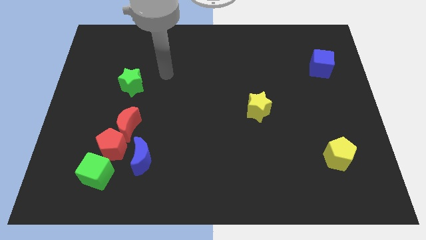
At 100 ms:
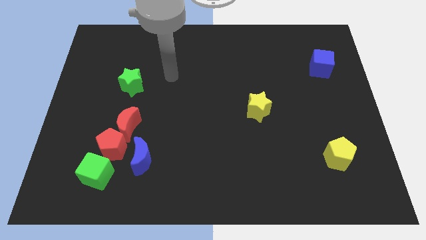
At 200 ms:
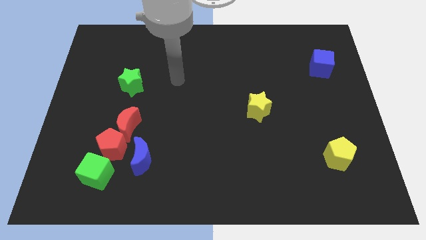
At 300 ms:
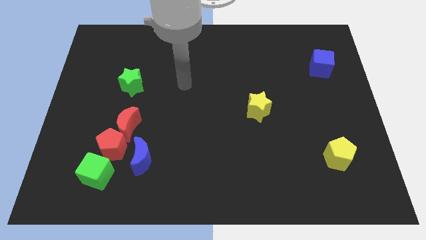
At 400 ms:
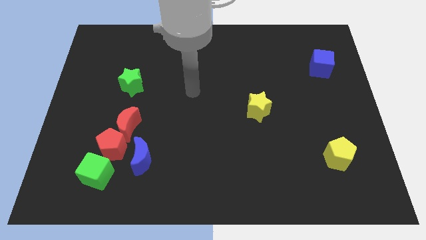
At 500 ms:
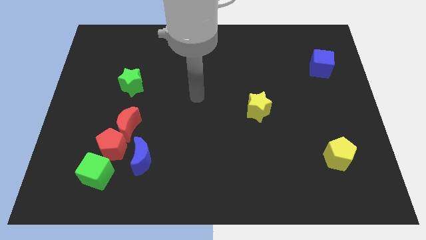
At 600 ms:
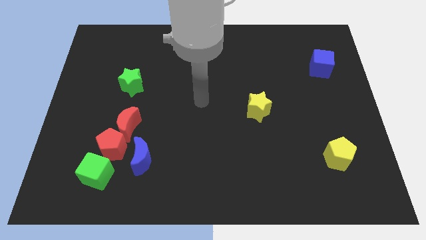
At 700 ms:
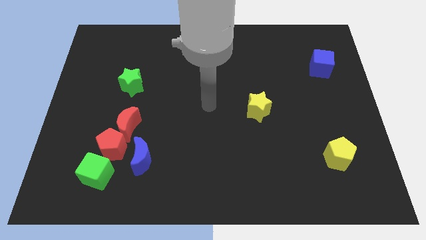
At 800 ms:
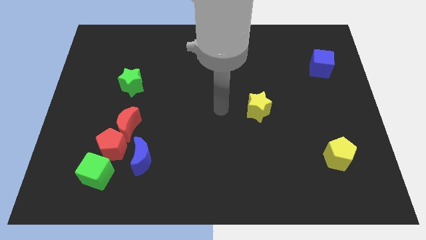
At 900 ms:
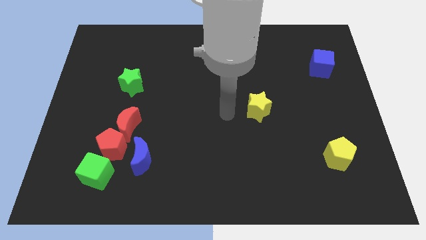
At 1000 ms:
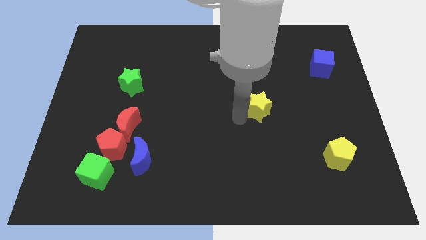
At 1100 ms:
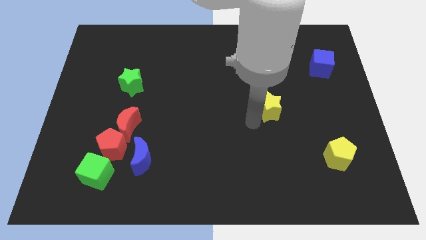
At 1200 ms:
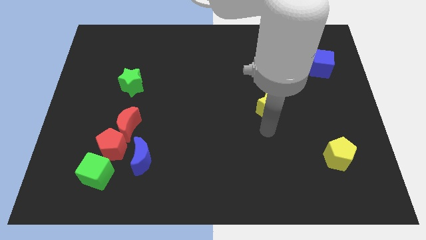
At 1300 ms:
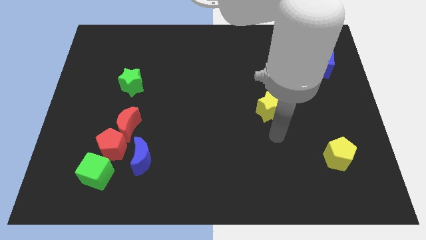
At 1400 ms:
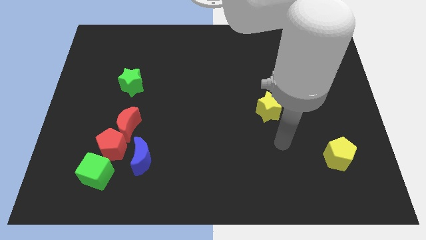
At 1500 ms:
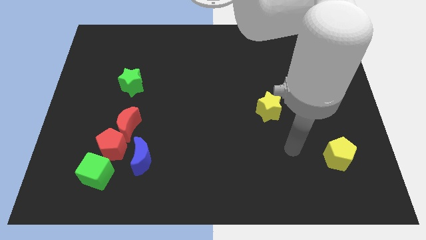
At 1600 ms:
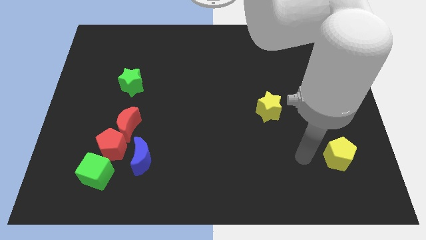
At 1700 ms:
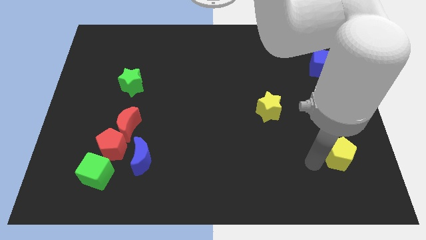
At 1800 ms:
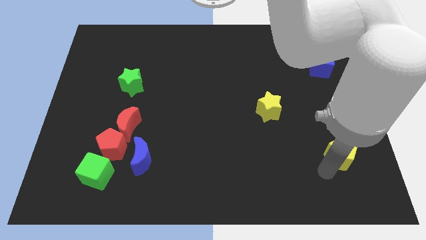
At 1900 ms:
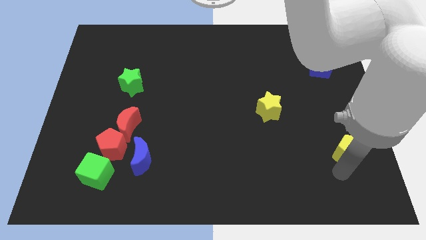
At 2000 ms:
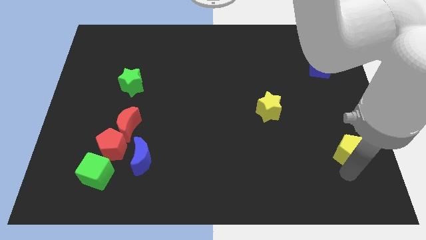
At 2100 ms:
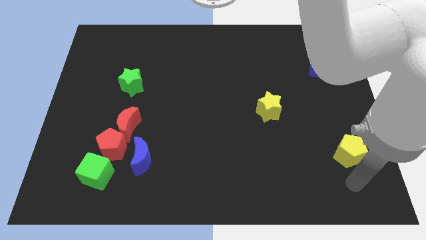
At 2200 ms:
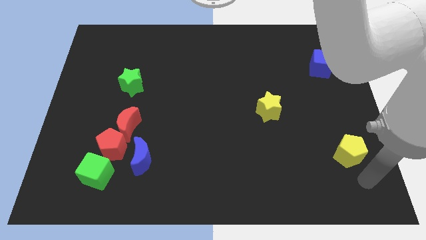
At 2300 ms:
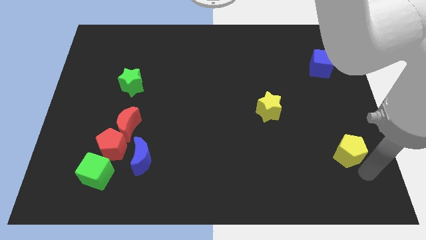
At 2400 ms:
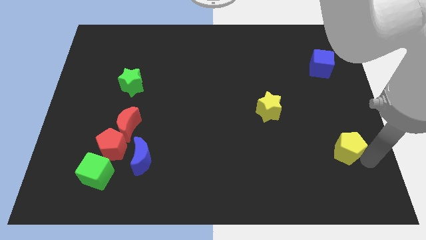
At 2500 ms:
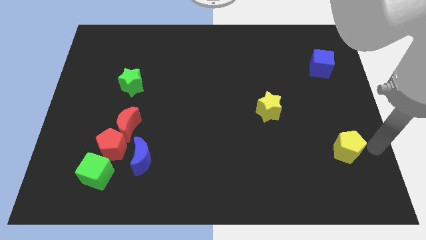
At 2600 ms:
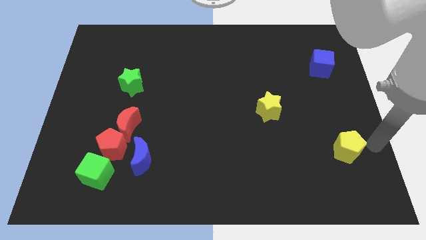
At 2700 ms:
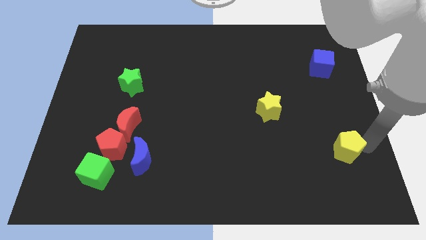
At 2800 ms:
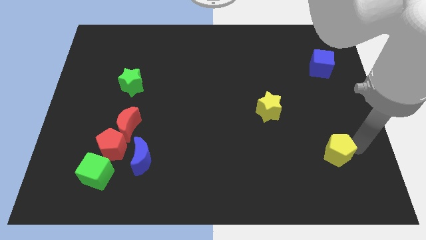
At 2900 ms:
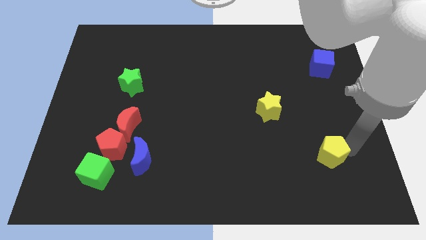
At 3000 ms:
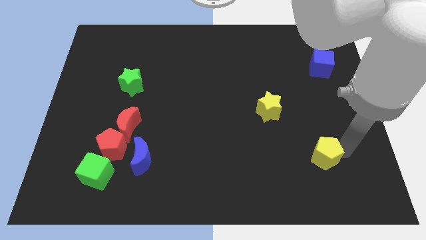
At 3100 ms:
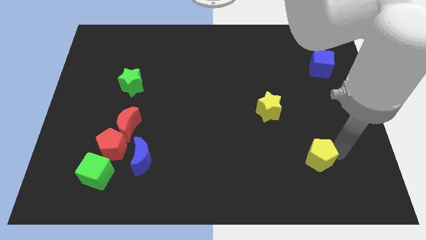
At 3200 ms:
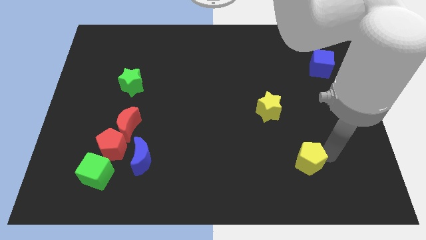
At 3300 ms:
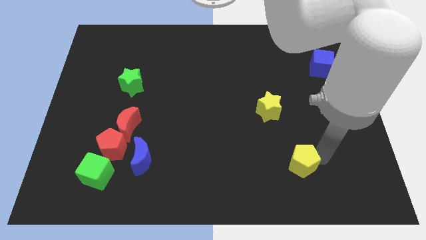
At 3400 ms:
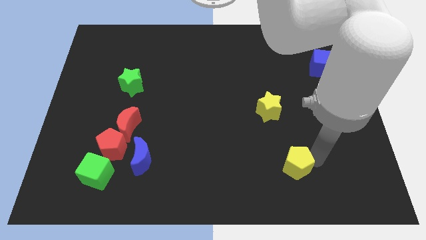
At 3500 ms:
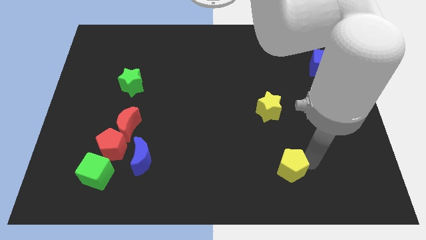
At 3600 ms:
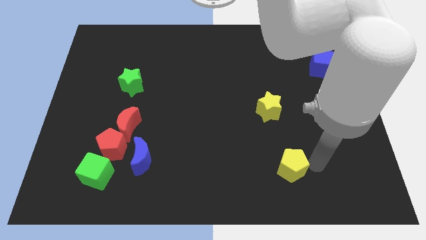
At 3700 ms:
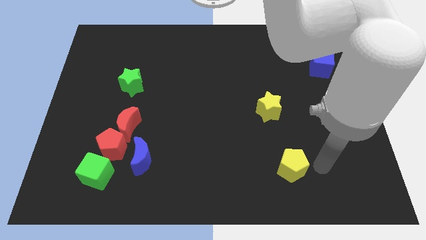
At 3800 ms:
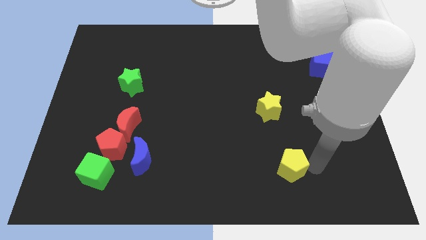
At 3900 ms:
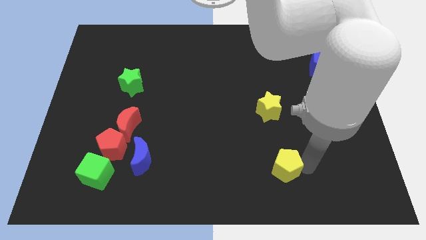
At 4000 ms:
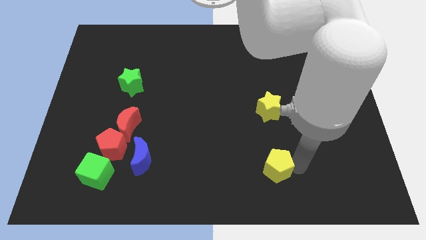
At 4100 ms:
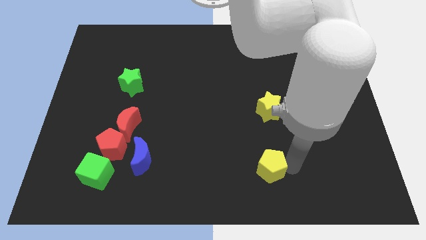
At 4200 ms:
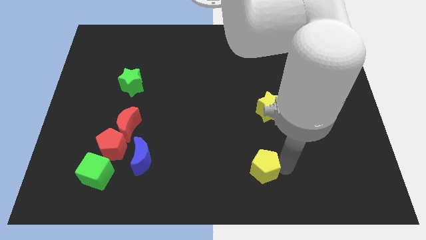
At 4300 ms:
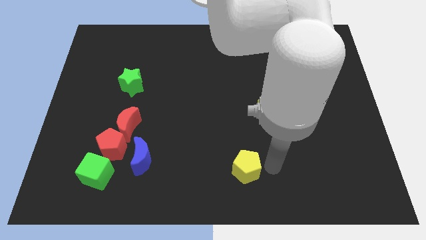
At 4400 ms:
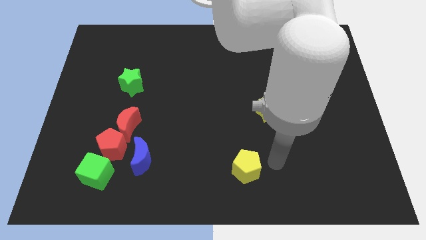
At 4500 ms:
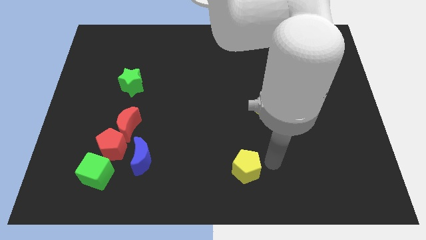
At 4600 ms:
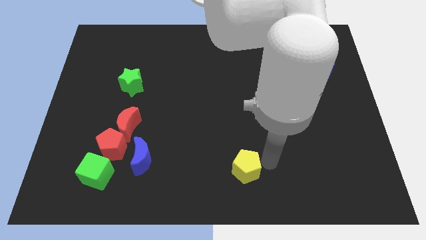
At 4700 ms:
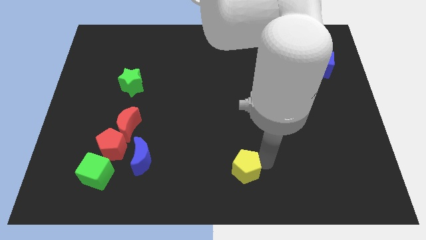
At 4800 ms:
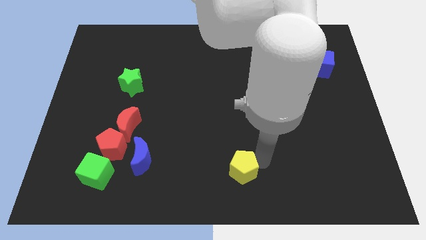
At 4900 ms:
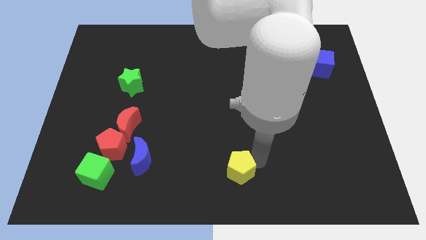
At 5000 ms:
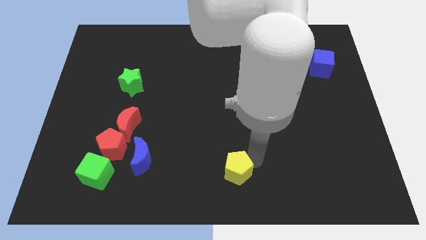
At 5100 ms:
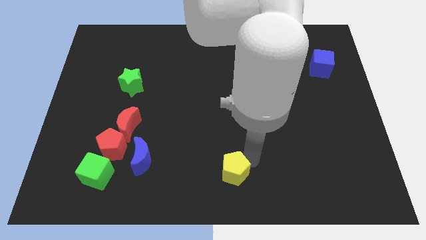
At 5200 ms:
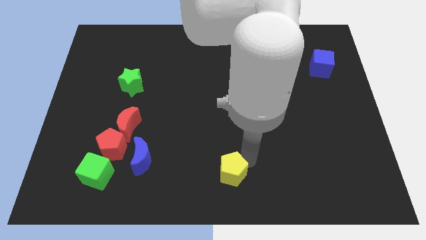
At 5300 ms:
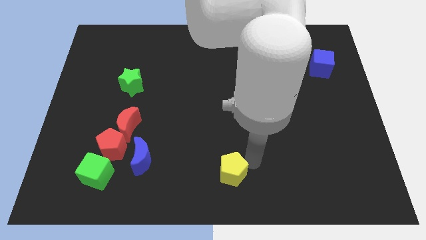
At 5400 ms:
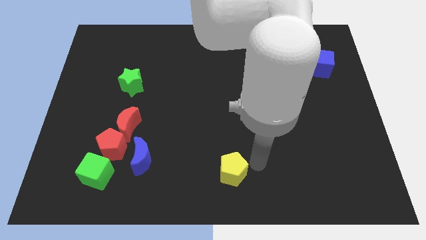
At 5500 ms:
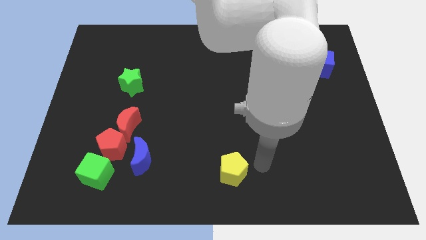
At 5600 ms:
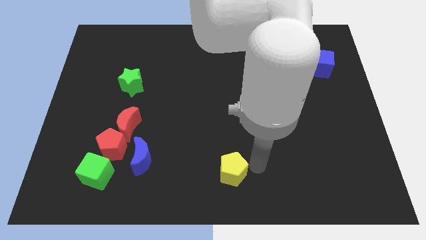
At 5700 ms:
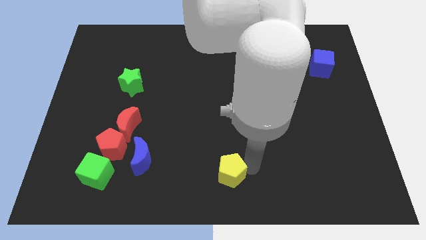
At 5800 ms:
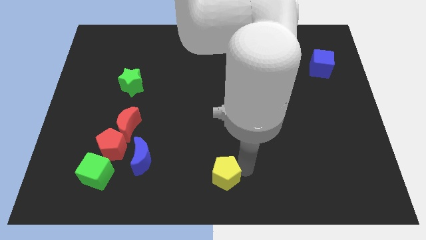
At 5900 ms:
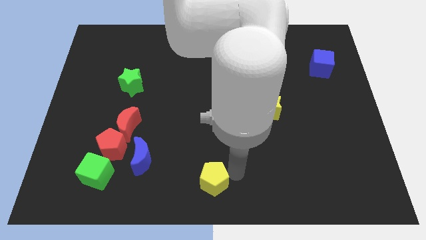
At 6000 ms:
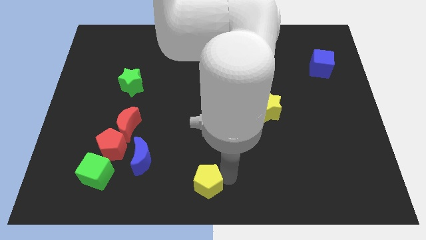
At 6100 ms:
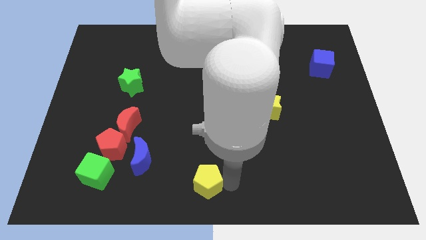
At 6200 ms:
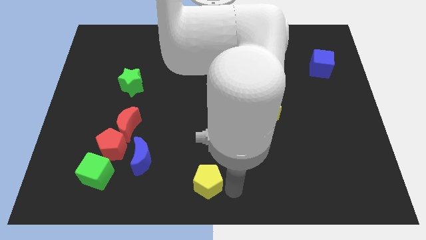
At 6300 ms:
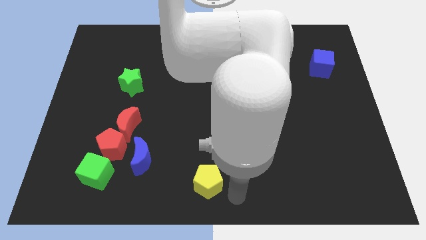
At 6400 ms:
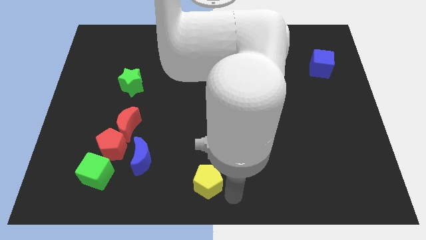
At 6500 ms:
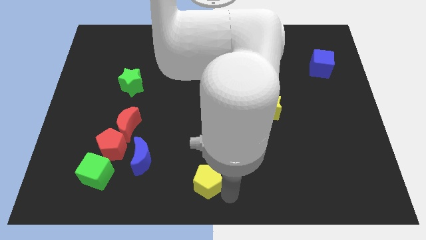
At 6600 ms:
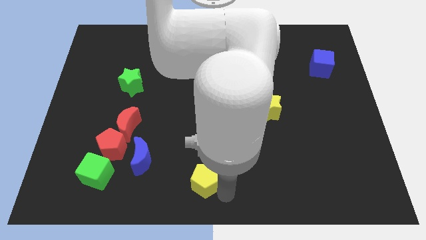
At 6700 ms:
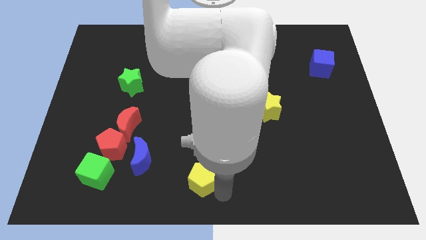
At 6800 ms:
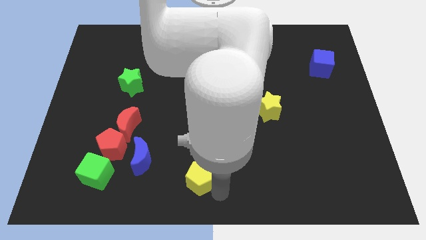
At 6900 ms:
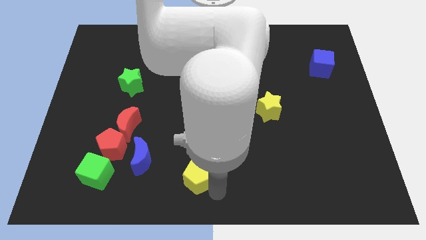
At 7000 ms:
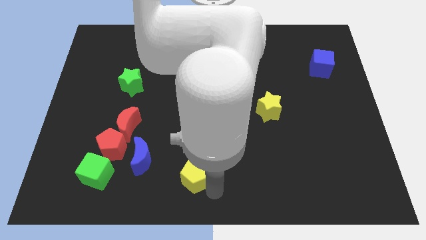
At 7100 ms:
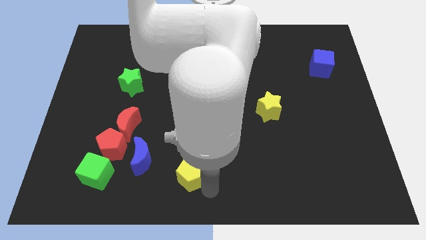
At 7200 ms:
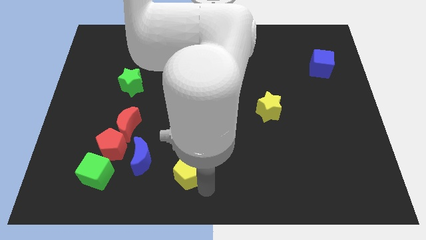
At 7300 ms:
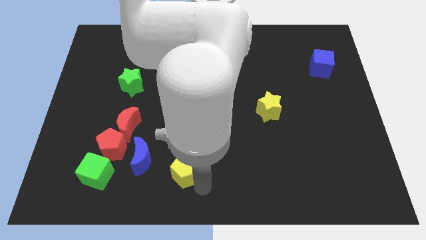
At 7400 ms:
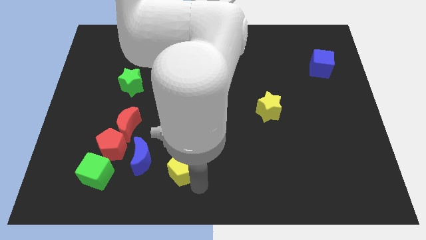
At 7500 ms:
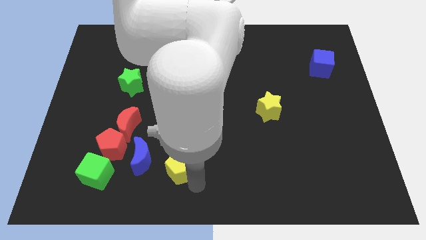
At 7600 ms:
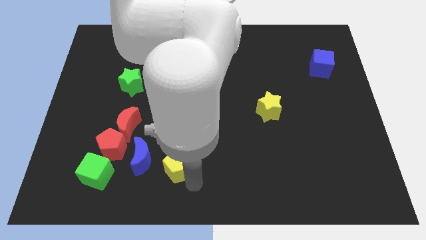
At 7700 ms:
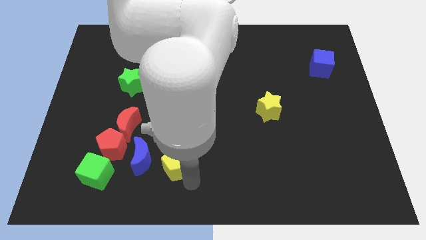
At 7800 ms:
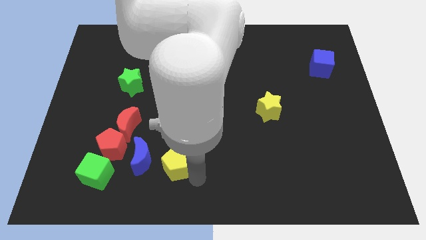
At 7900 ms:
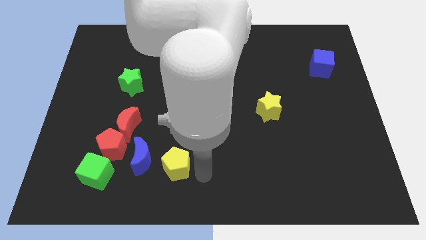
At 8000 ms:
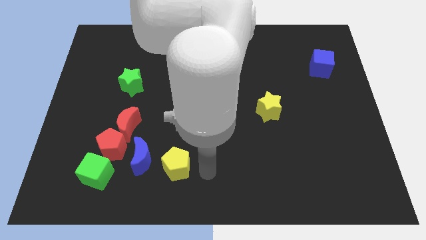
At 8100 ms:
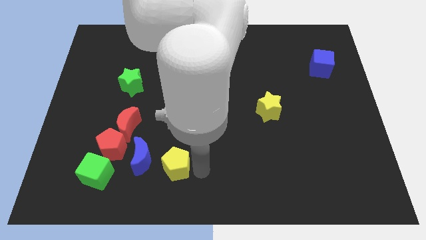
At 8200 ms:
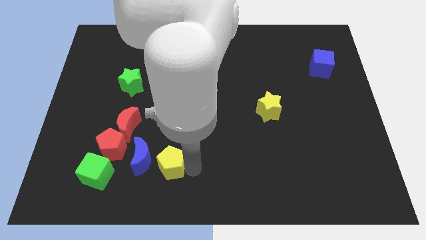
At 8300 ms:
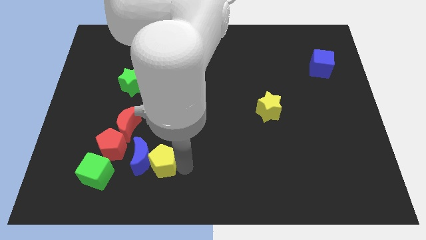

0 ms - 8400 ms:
move the yellow pentagon towards the blue moon
